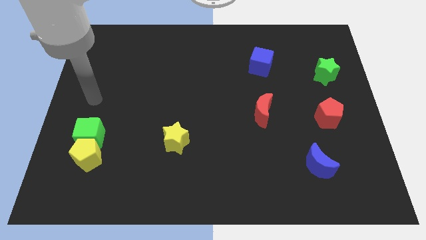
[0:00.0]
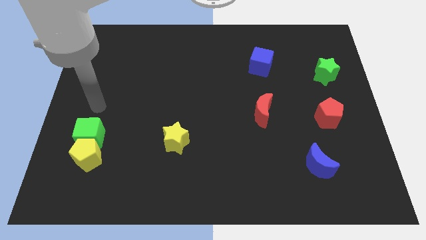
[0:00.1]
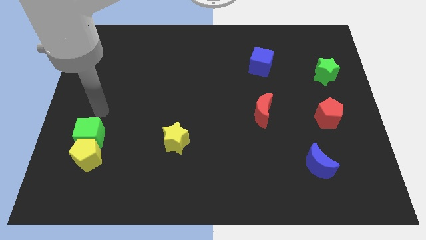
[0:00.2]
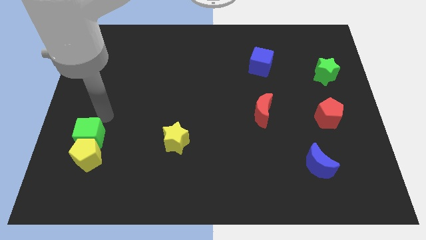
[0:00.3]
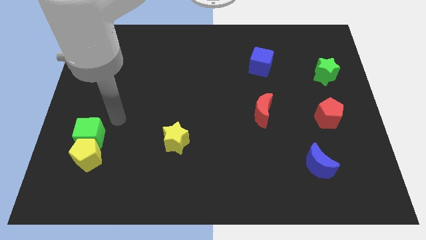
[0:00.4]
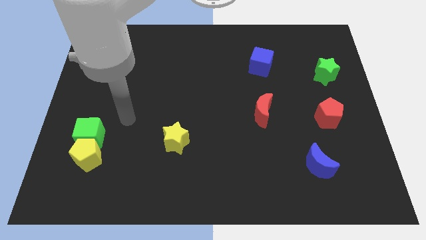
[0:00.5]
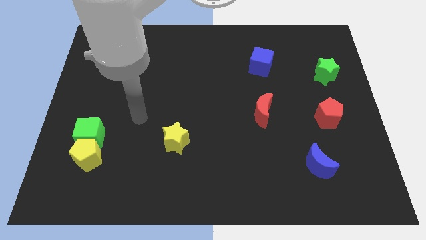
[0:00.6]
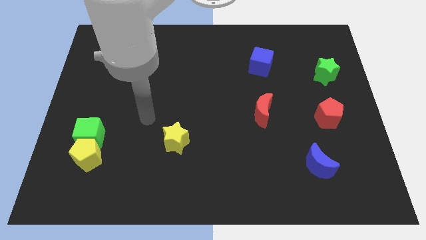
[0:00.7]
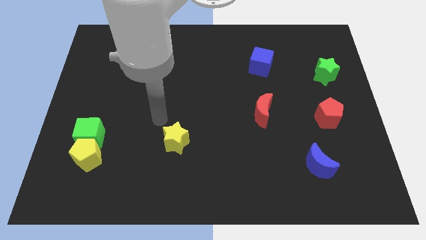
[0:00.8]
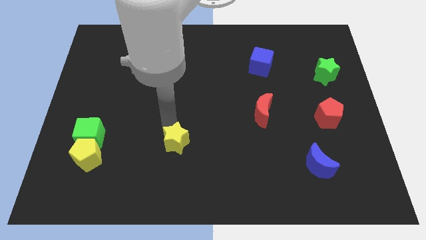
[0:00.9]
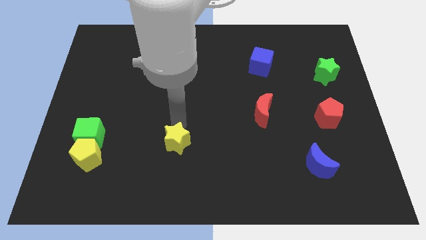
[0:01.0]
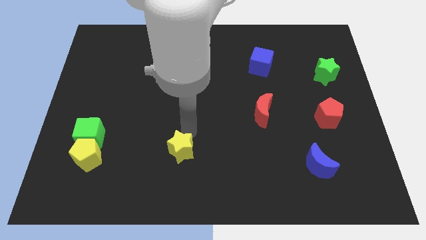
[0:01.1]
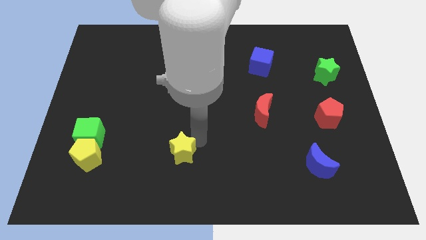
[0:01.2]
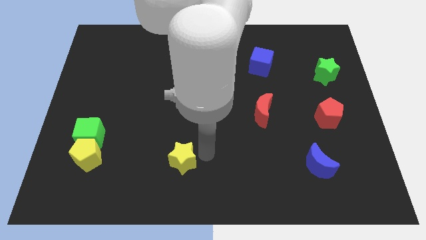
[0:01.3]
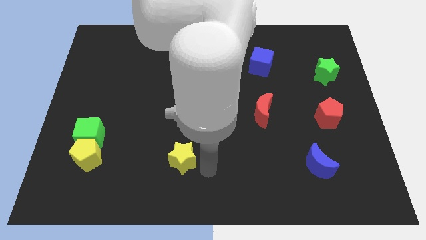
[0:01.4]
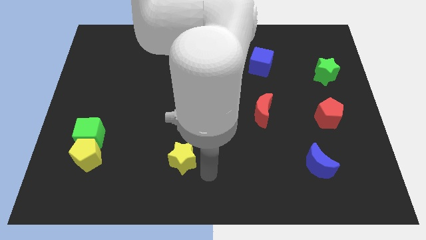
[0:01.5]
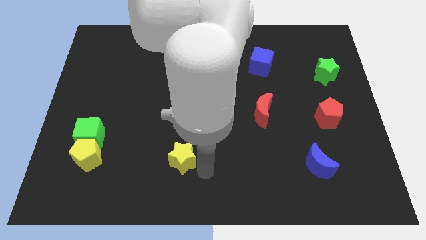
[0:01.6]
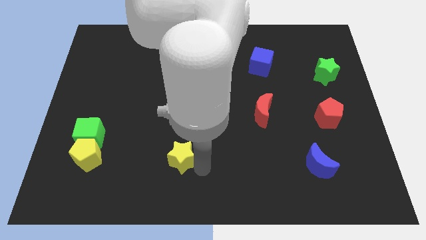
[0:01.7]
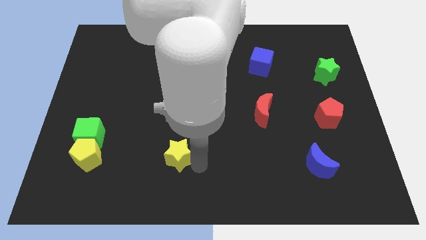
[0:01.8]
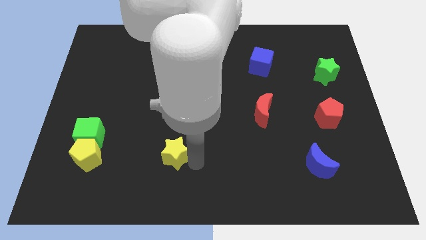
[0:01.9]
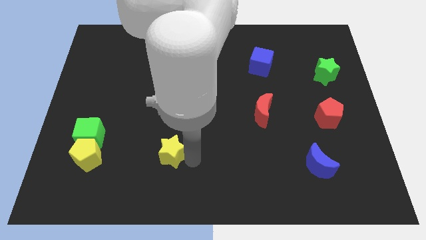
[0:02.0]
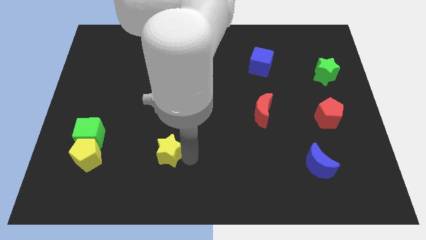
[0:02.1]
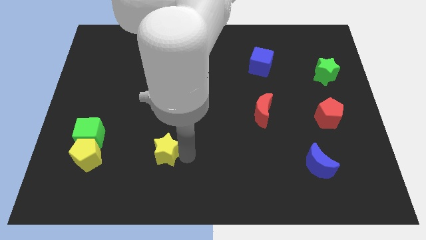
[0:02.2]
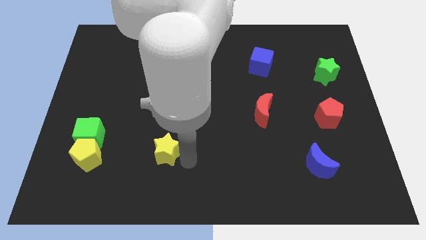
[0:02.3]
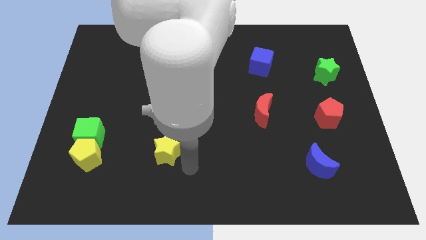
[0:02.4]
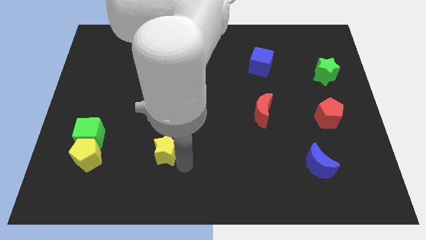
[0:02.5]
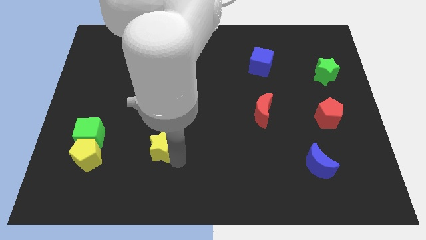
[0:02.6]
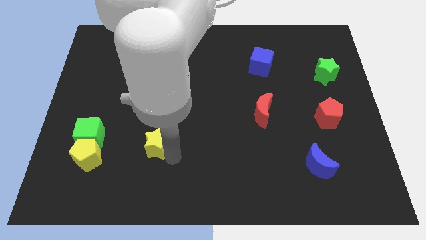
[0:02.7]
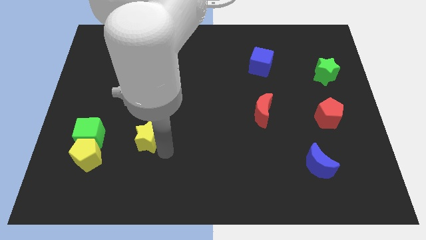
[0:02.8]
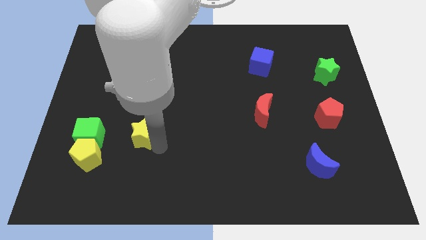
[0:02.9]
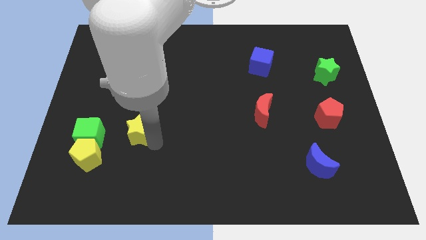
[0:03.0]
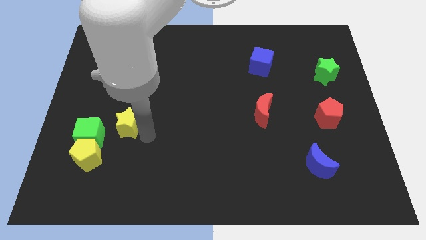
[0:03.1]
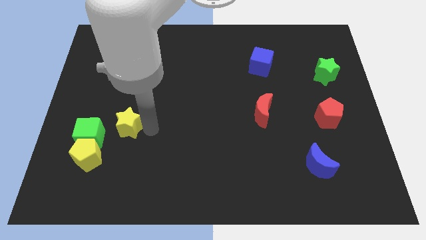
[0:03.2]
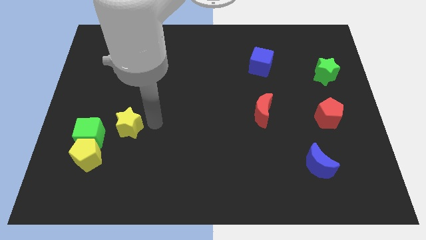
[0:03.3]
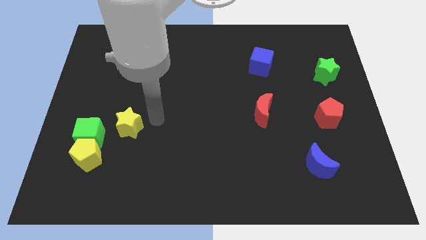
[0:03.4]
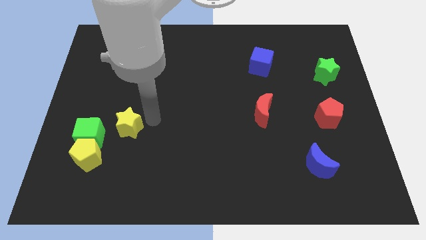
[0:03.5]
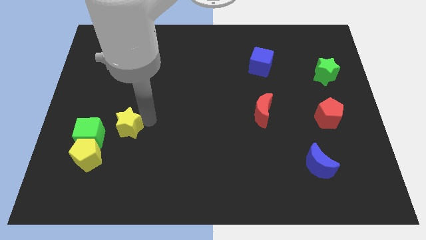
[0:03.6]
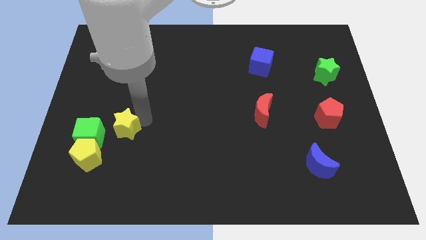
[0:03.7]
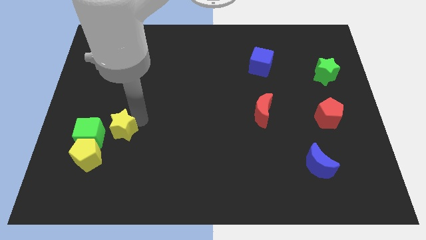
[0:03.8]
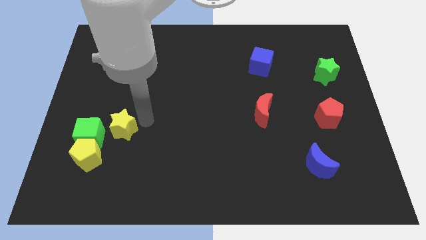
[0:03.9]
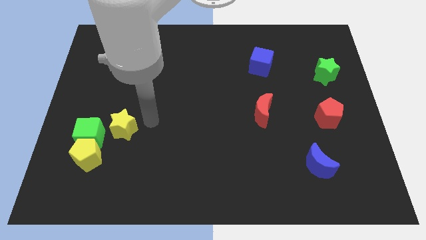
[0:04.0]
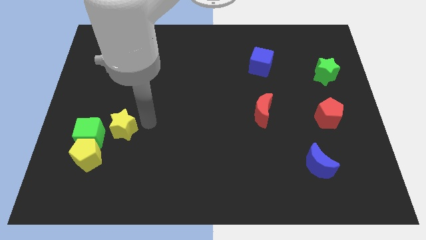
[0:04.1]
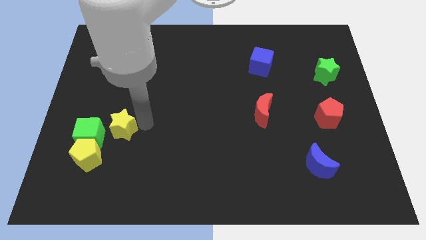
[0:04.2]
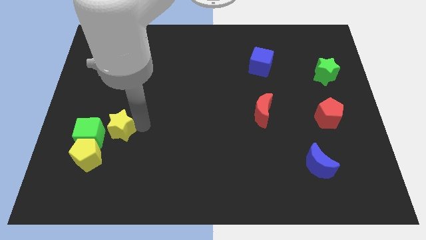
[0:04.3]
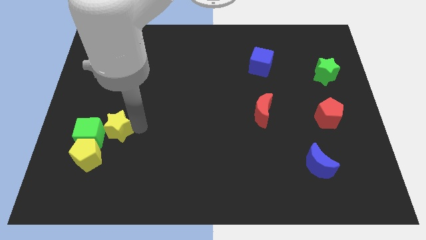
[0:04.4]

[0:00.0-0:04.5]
move the yellow star to the green cube

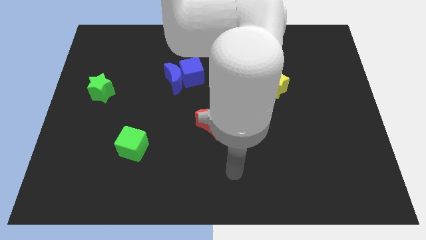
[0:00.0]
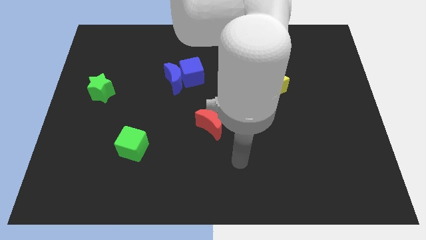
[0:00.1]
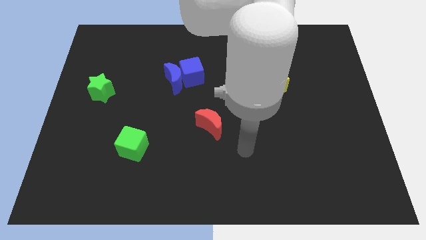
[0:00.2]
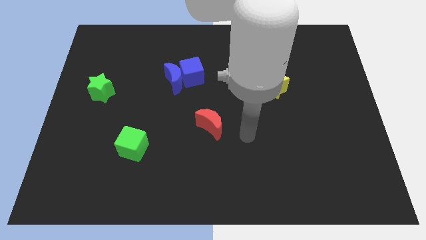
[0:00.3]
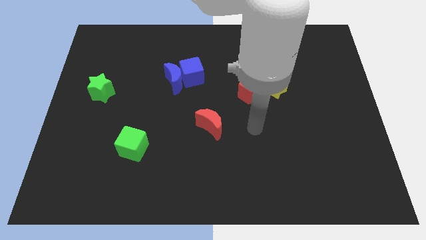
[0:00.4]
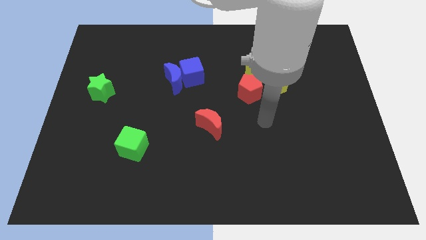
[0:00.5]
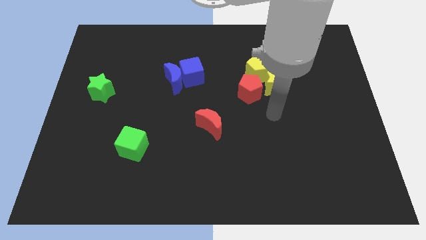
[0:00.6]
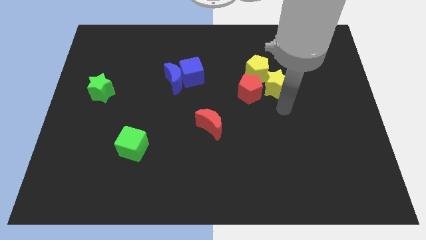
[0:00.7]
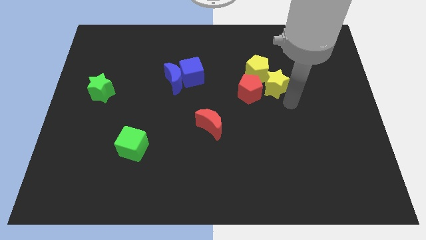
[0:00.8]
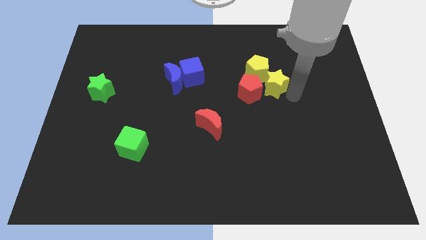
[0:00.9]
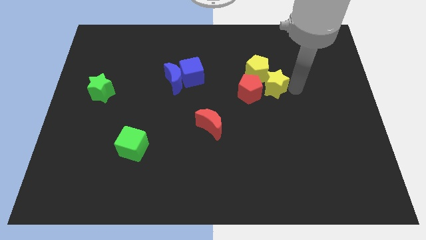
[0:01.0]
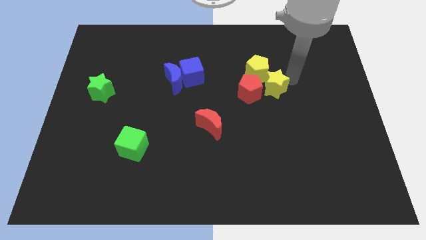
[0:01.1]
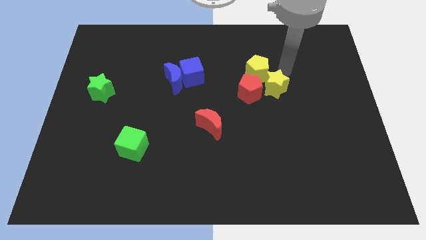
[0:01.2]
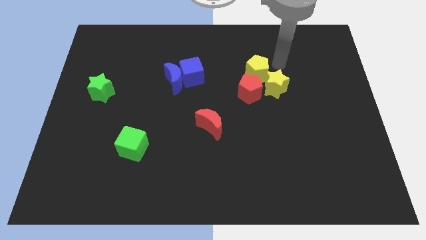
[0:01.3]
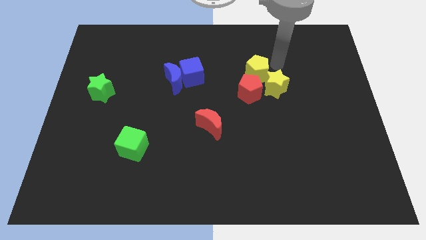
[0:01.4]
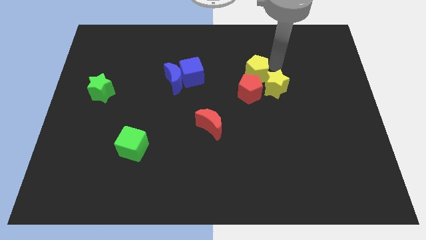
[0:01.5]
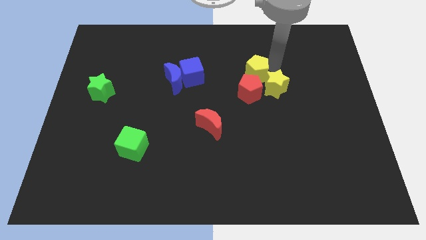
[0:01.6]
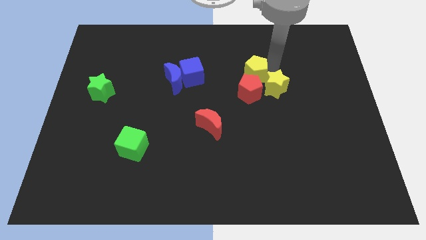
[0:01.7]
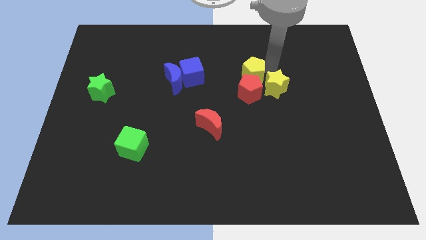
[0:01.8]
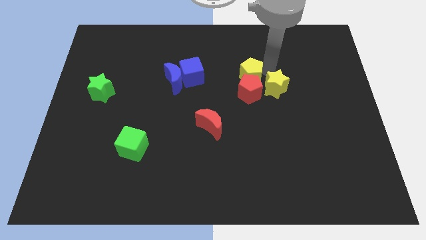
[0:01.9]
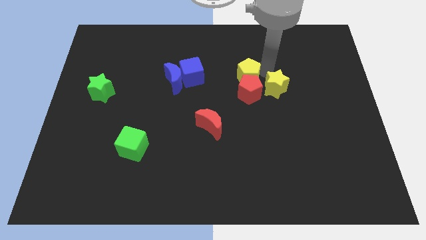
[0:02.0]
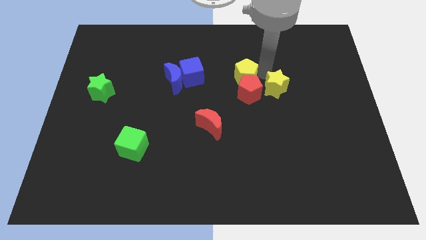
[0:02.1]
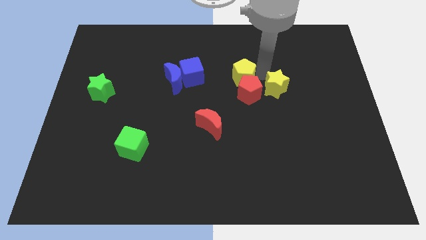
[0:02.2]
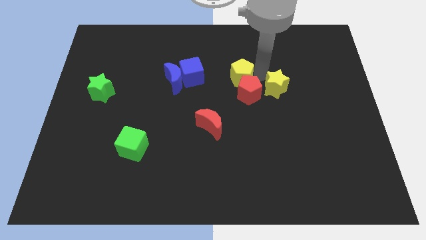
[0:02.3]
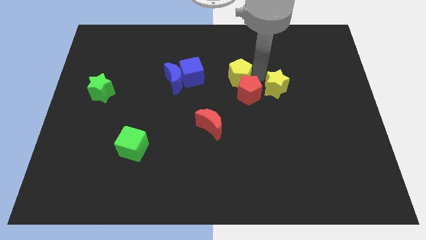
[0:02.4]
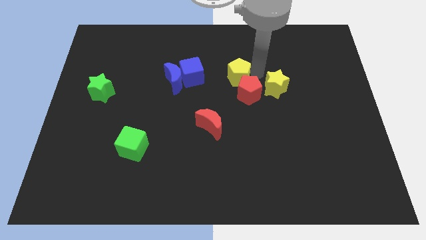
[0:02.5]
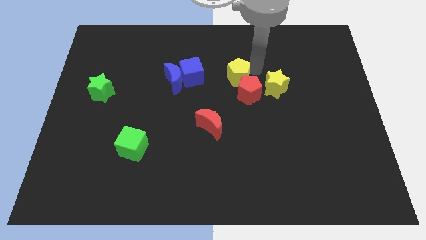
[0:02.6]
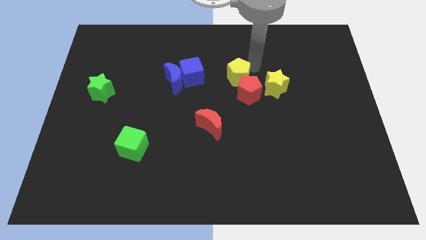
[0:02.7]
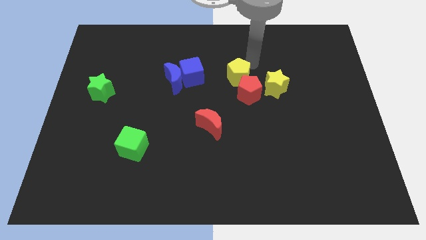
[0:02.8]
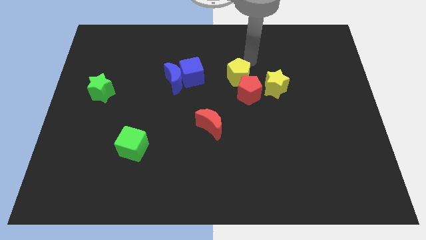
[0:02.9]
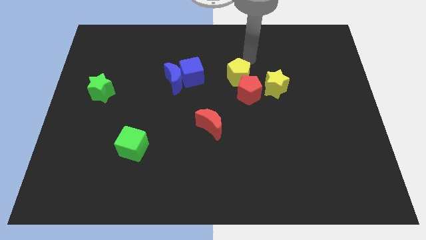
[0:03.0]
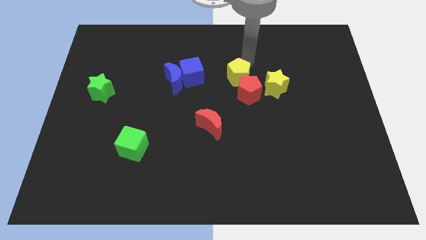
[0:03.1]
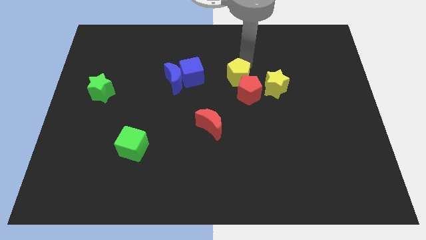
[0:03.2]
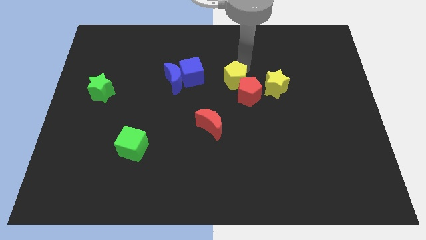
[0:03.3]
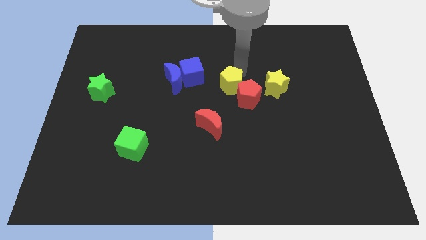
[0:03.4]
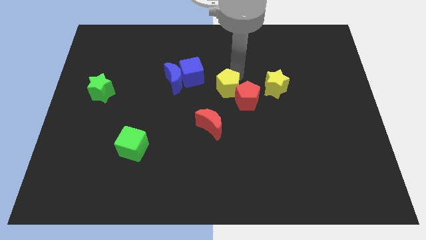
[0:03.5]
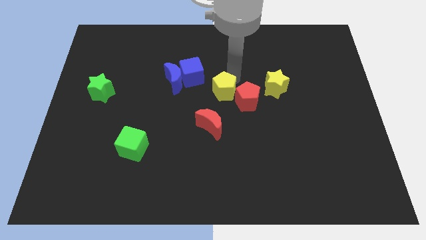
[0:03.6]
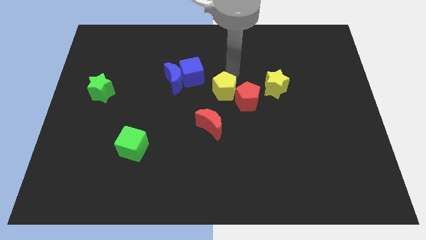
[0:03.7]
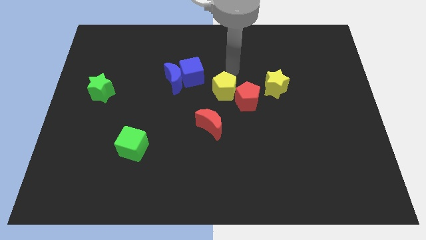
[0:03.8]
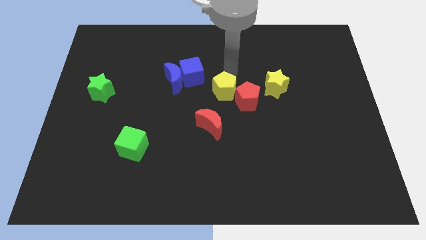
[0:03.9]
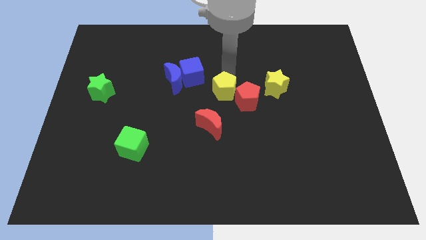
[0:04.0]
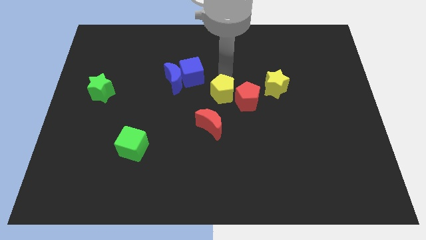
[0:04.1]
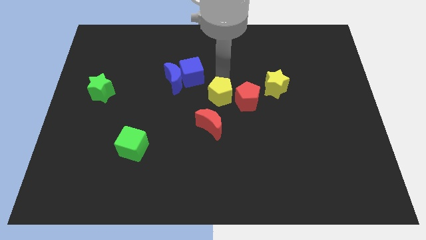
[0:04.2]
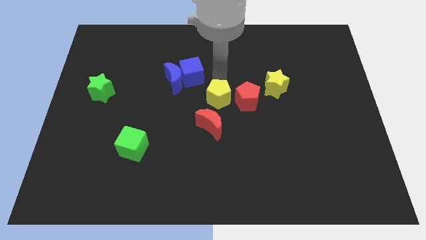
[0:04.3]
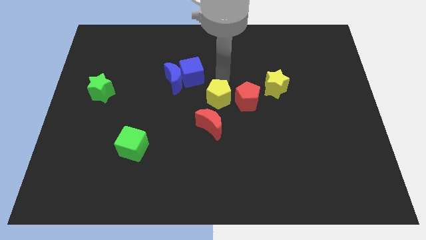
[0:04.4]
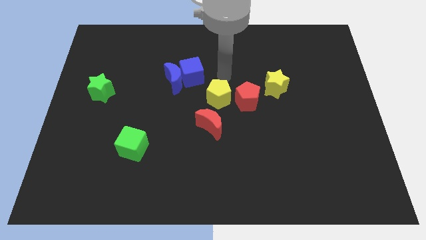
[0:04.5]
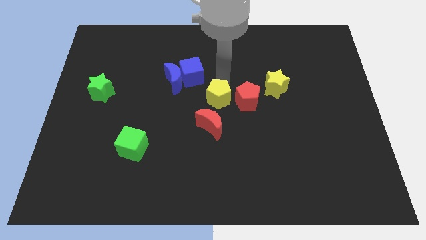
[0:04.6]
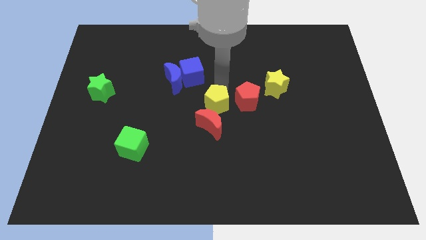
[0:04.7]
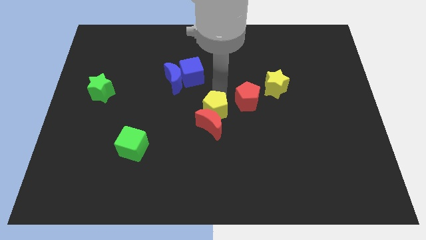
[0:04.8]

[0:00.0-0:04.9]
put the yellow pentagon close to the red moon
